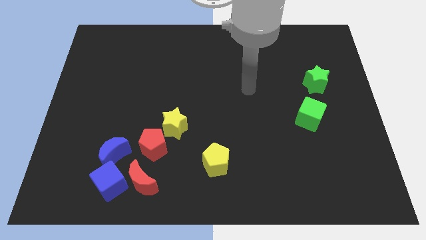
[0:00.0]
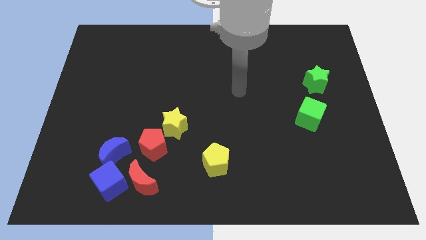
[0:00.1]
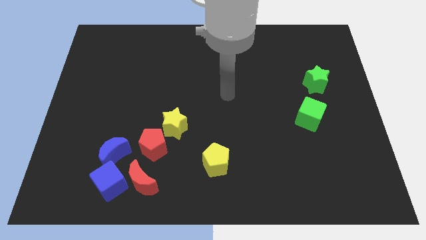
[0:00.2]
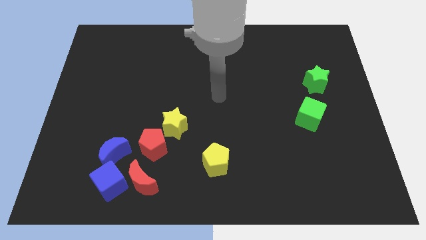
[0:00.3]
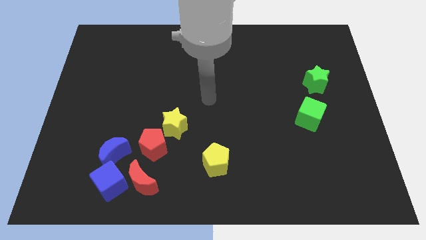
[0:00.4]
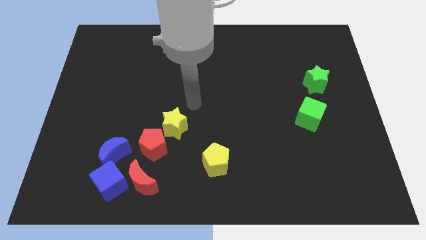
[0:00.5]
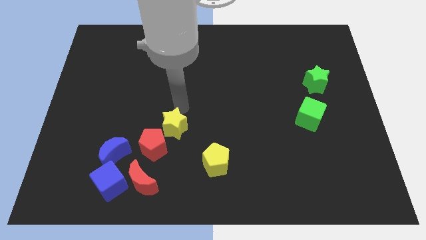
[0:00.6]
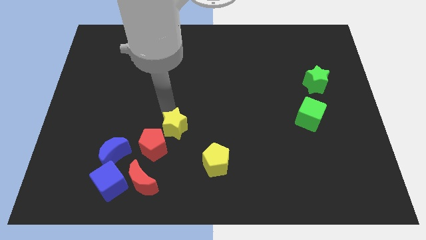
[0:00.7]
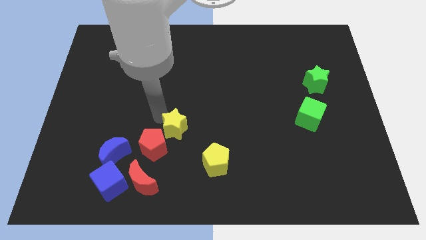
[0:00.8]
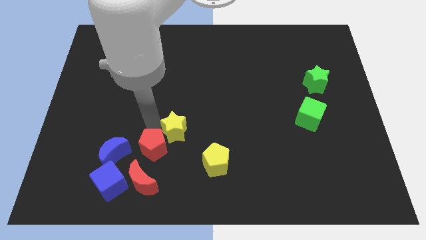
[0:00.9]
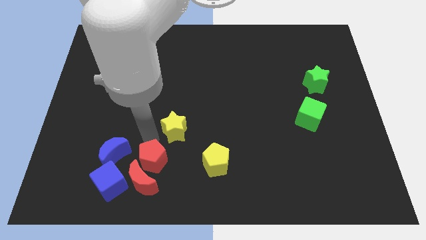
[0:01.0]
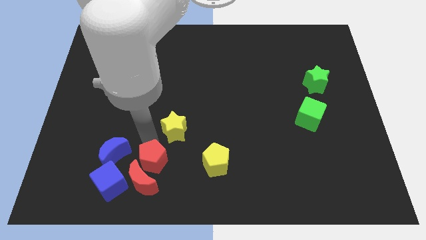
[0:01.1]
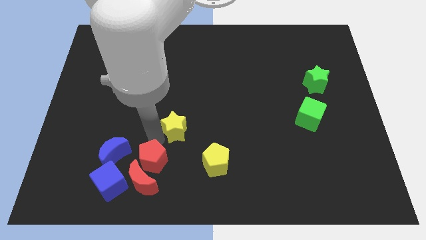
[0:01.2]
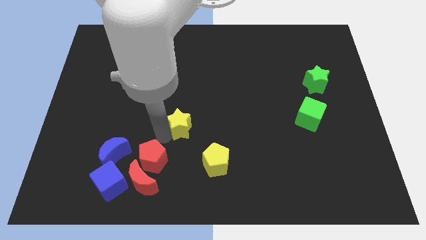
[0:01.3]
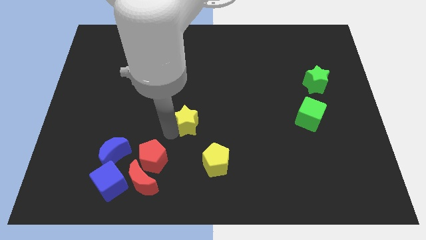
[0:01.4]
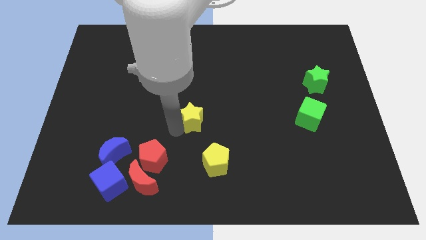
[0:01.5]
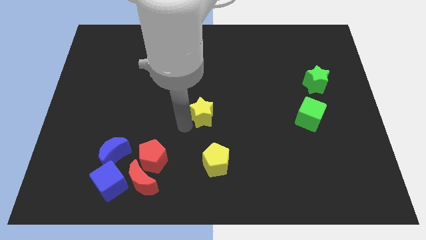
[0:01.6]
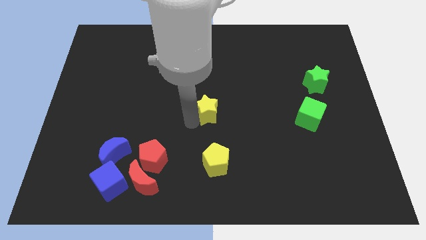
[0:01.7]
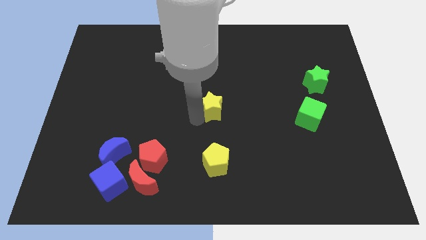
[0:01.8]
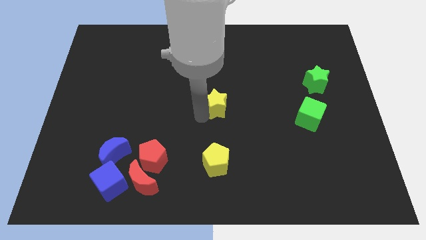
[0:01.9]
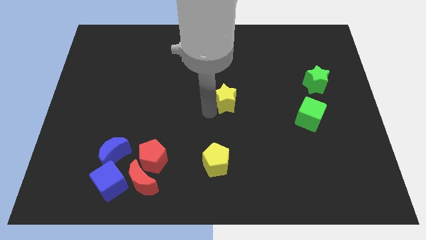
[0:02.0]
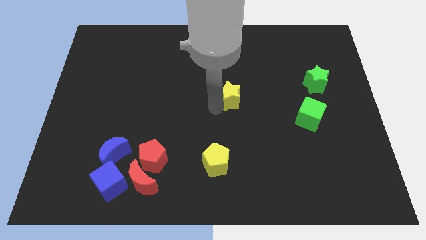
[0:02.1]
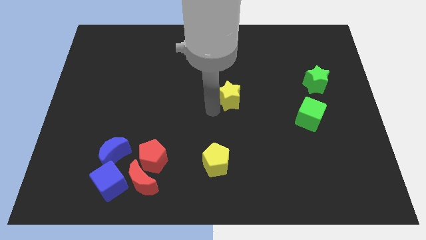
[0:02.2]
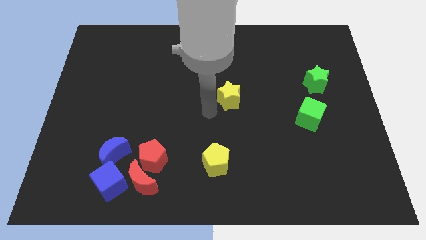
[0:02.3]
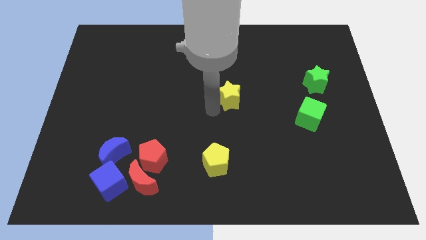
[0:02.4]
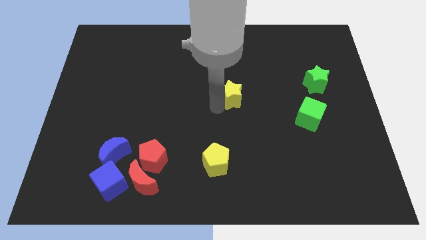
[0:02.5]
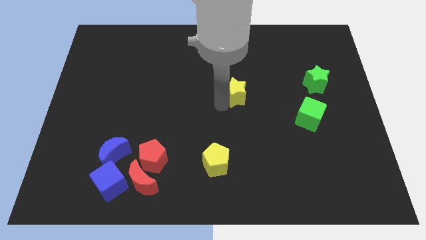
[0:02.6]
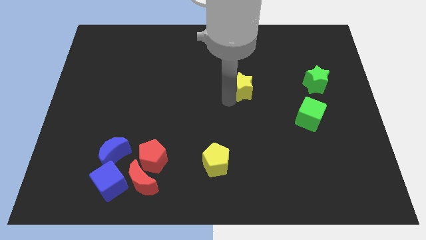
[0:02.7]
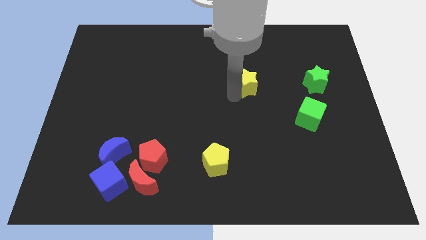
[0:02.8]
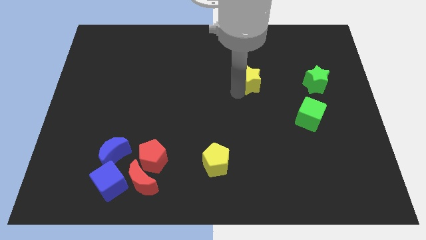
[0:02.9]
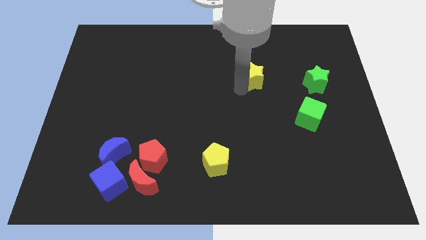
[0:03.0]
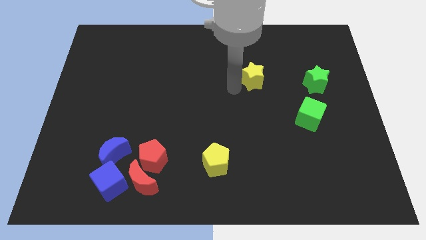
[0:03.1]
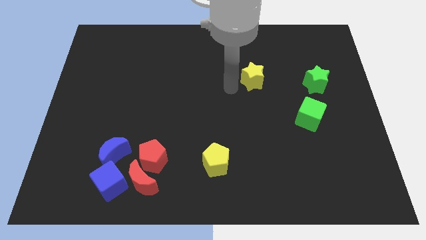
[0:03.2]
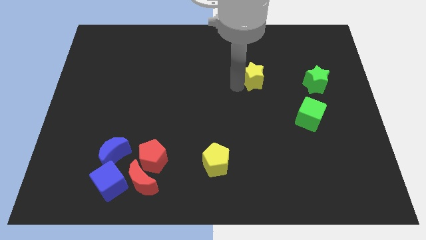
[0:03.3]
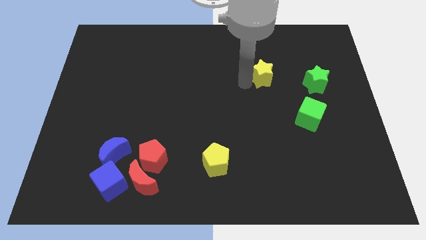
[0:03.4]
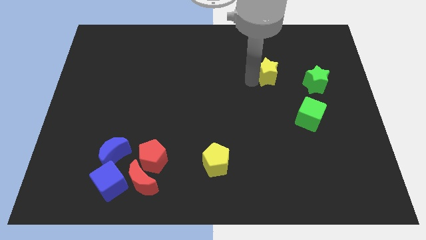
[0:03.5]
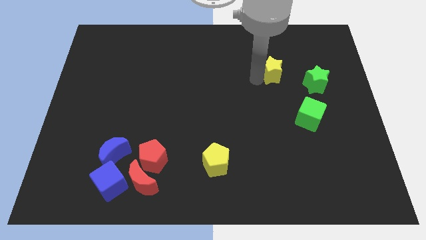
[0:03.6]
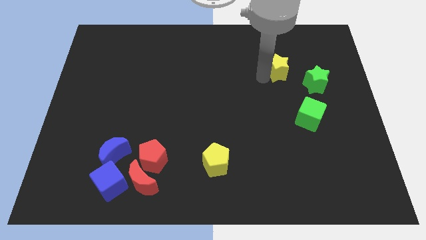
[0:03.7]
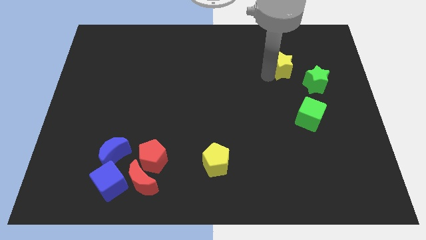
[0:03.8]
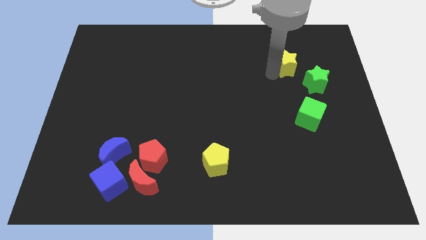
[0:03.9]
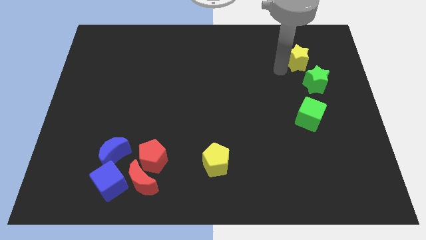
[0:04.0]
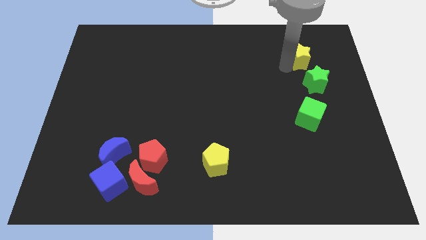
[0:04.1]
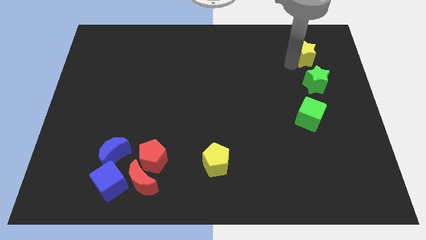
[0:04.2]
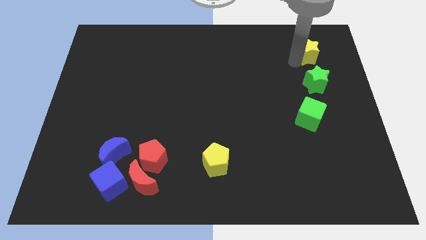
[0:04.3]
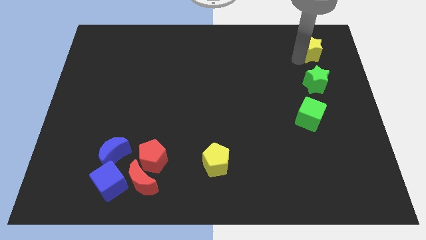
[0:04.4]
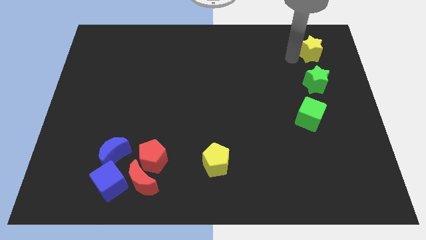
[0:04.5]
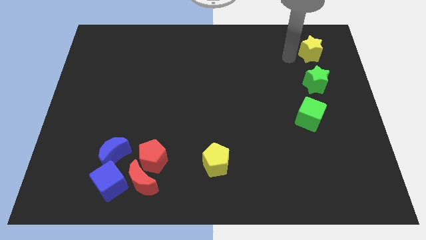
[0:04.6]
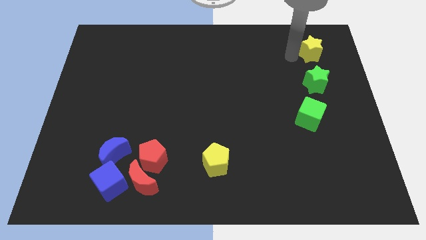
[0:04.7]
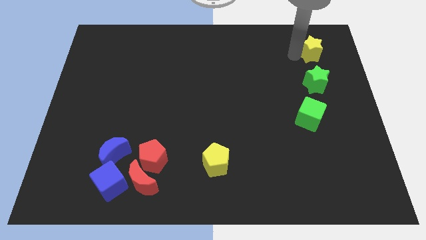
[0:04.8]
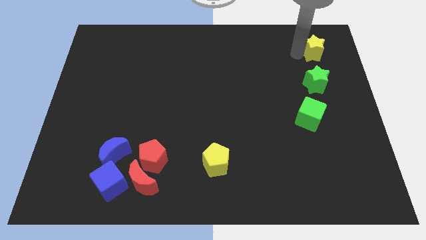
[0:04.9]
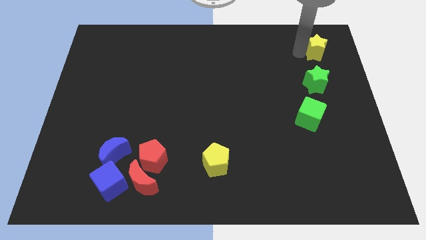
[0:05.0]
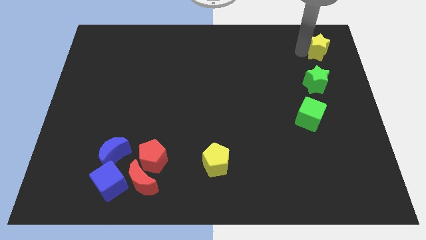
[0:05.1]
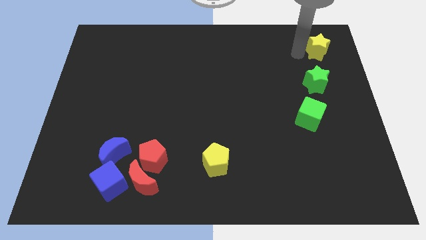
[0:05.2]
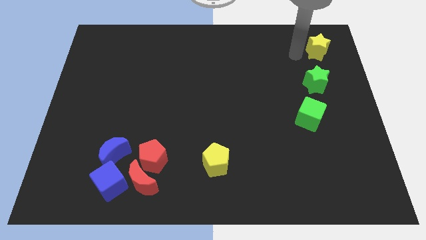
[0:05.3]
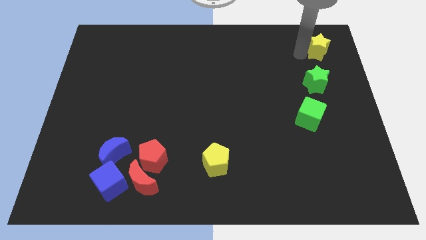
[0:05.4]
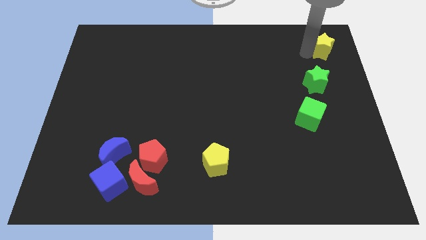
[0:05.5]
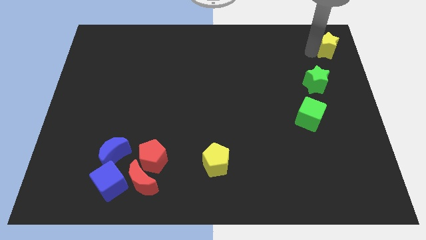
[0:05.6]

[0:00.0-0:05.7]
move the yellow star to the top right corner

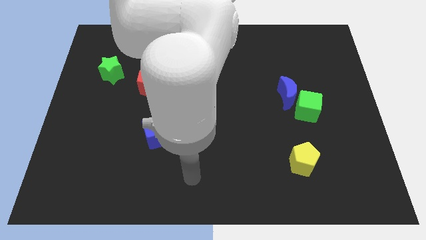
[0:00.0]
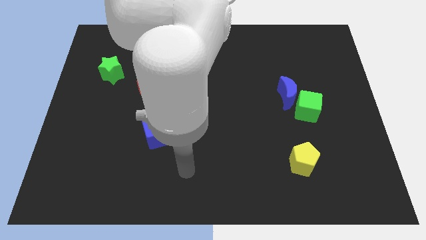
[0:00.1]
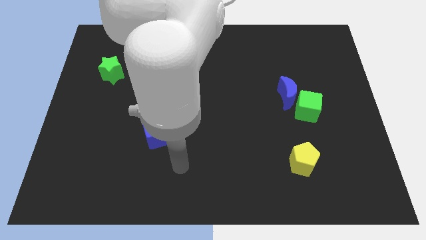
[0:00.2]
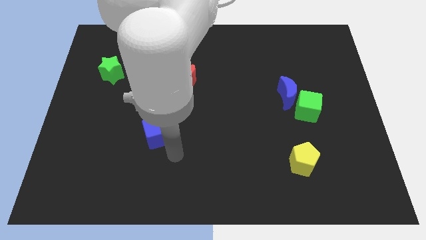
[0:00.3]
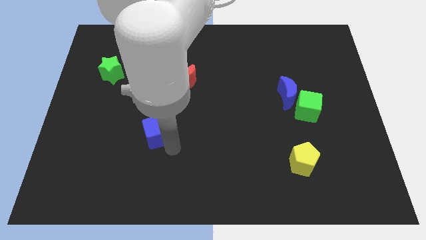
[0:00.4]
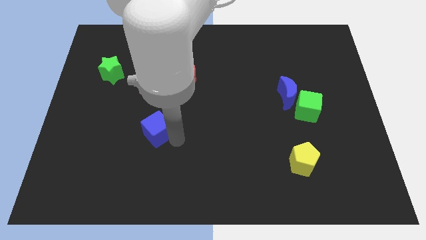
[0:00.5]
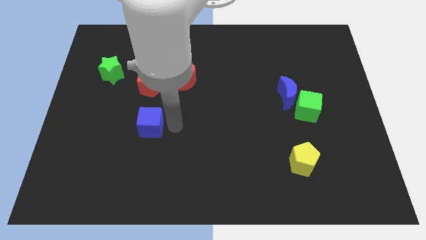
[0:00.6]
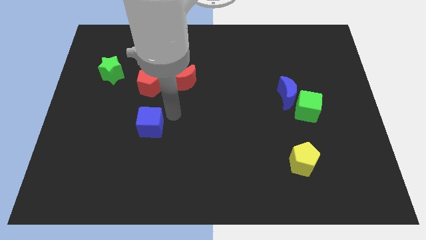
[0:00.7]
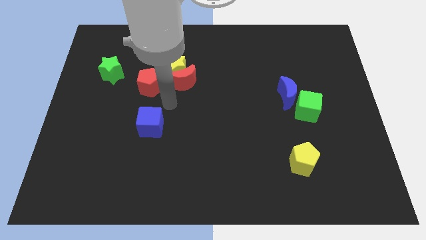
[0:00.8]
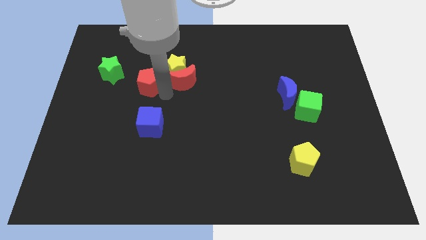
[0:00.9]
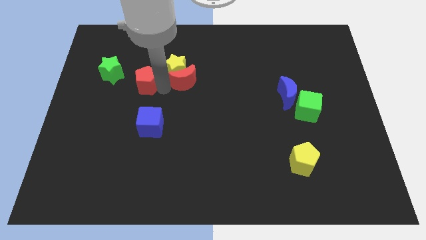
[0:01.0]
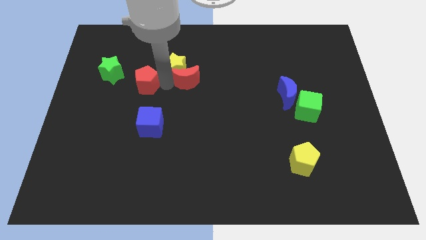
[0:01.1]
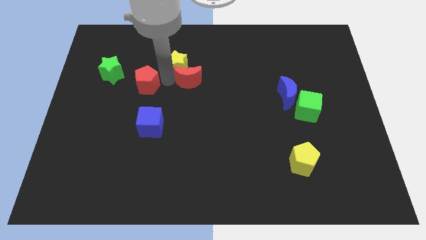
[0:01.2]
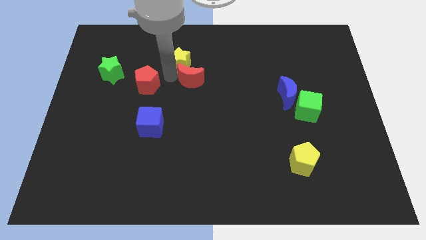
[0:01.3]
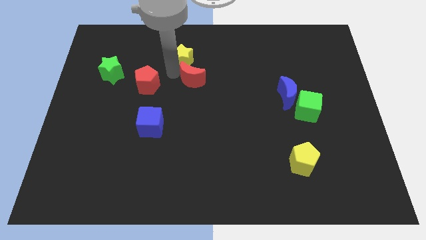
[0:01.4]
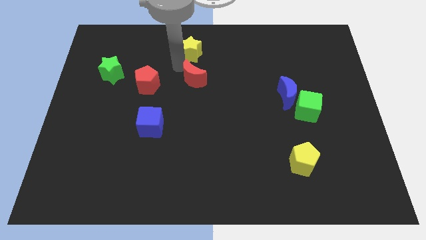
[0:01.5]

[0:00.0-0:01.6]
slide the yellow star to the top side
